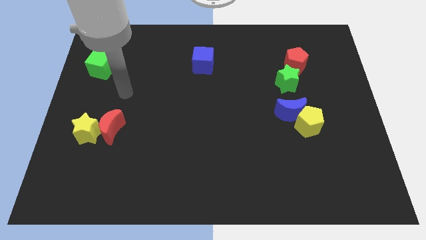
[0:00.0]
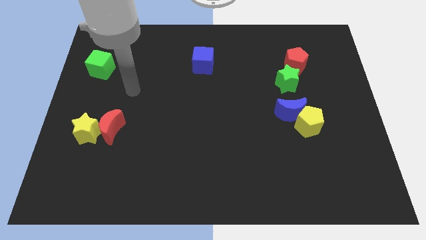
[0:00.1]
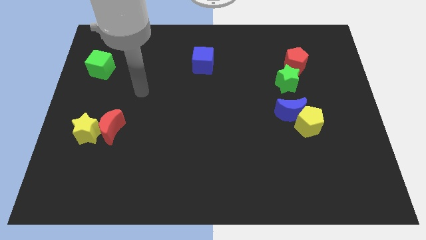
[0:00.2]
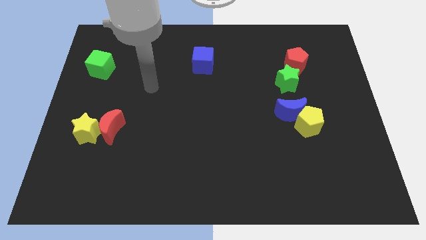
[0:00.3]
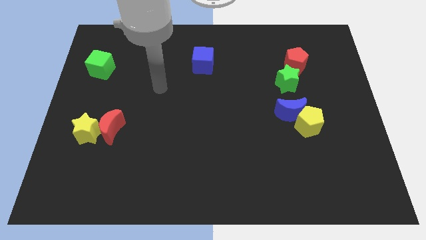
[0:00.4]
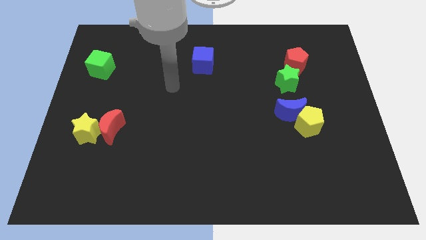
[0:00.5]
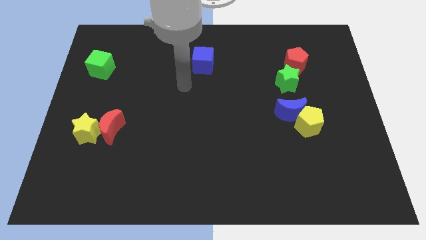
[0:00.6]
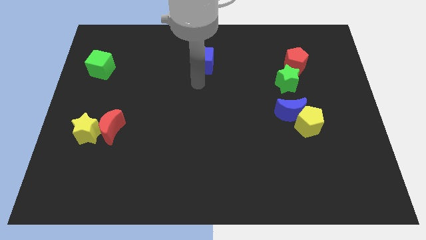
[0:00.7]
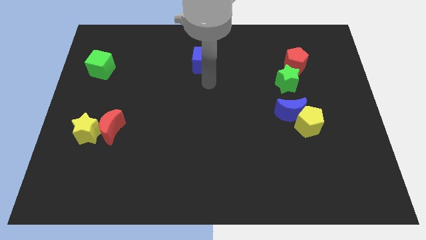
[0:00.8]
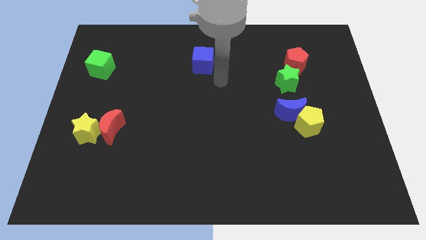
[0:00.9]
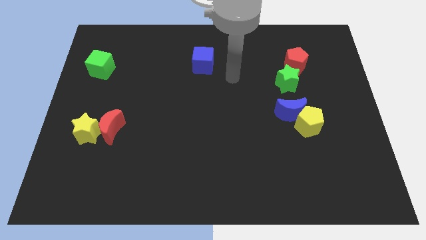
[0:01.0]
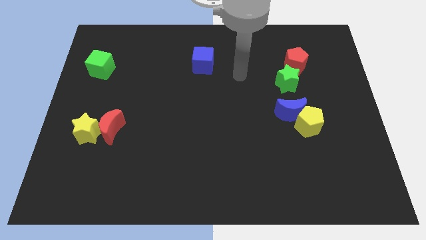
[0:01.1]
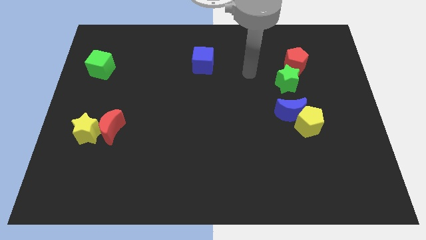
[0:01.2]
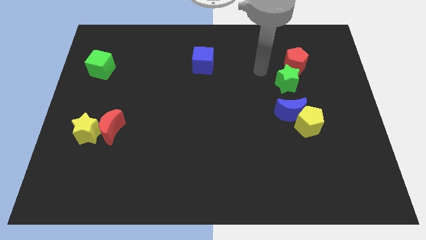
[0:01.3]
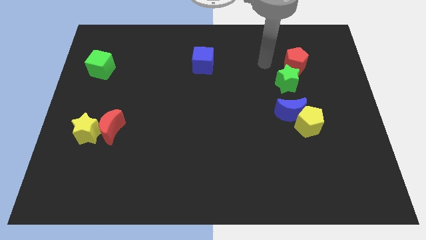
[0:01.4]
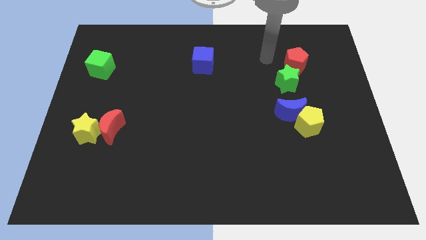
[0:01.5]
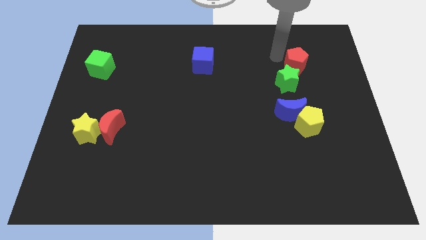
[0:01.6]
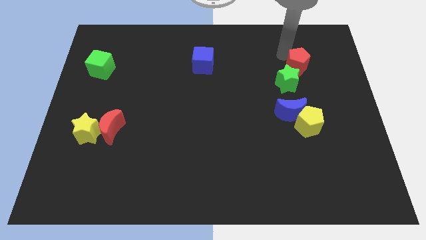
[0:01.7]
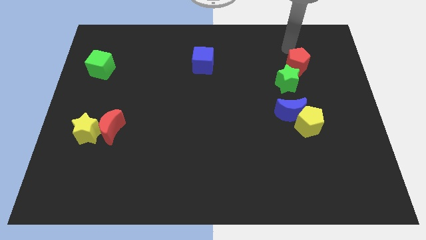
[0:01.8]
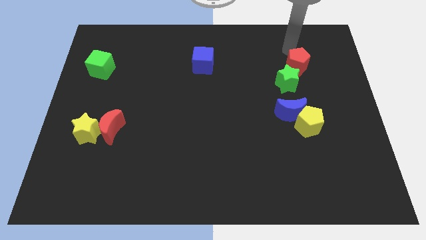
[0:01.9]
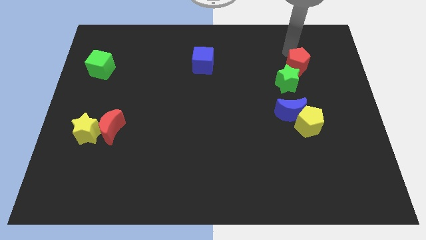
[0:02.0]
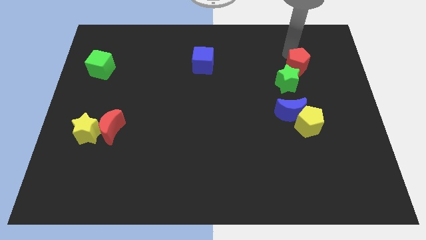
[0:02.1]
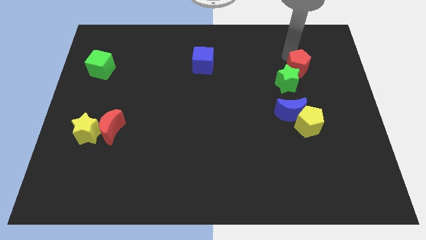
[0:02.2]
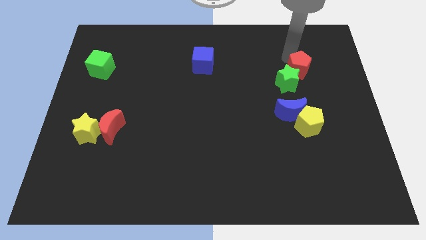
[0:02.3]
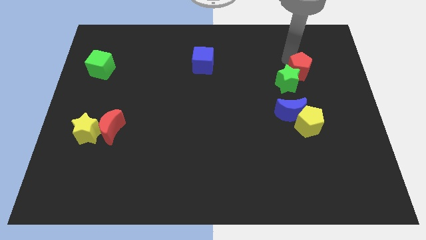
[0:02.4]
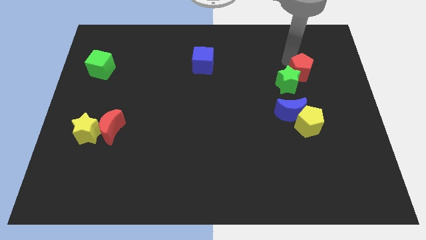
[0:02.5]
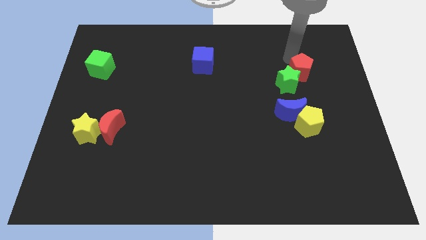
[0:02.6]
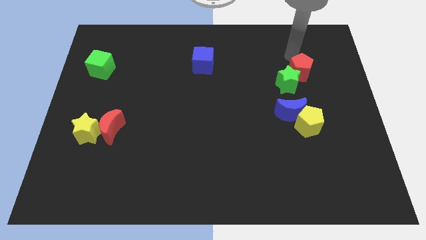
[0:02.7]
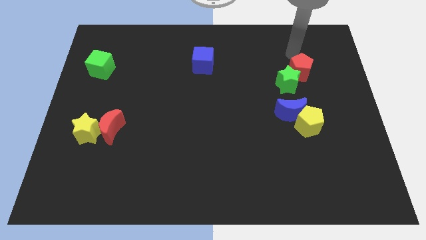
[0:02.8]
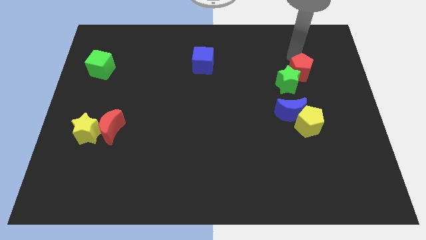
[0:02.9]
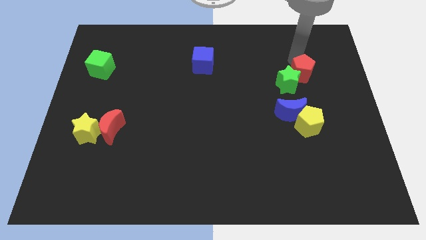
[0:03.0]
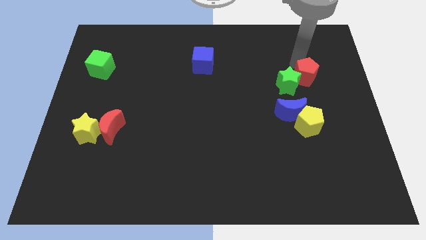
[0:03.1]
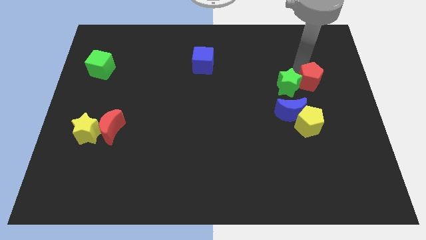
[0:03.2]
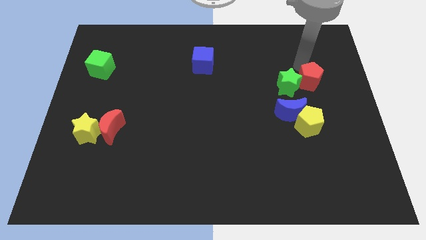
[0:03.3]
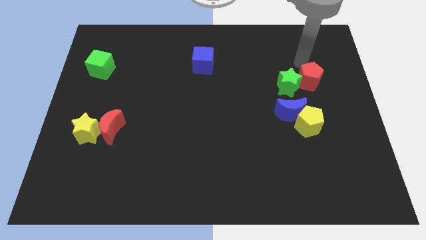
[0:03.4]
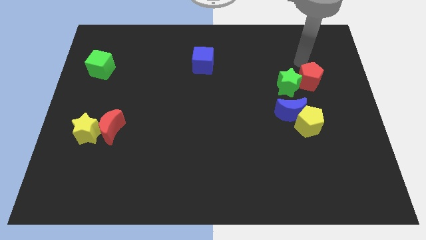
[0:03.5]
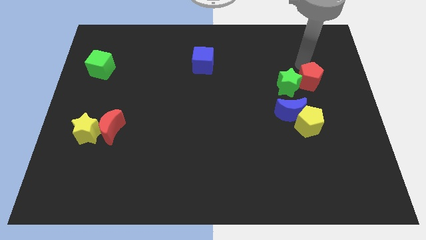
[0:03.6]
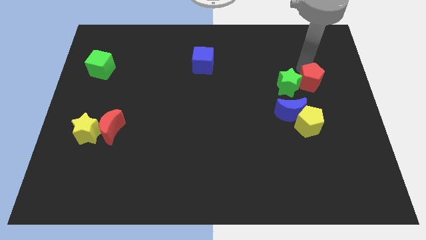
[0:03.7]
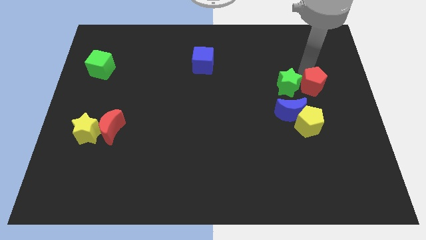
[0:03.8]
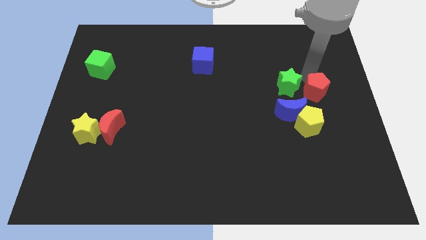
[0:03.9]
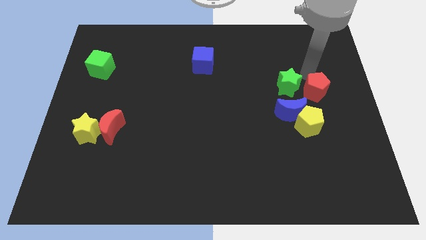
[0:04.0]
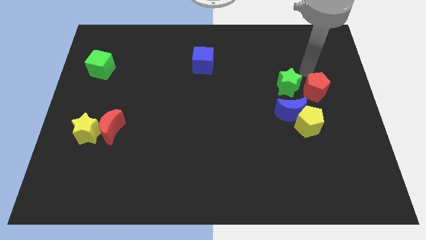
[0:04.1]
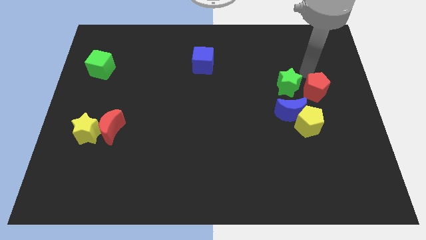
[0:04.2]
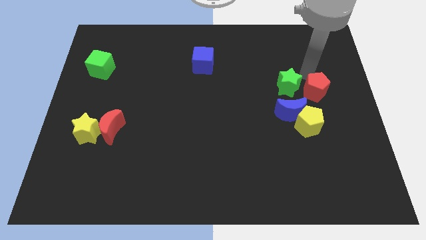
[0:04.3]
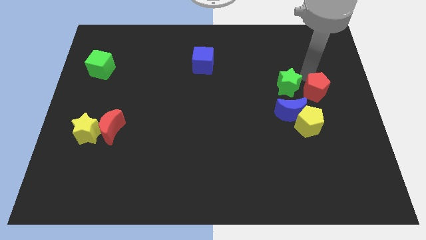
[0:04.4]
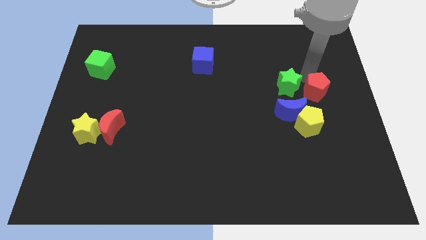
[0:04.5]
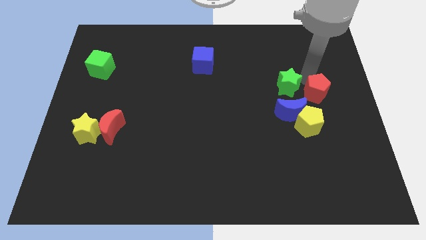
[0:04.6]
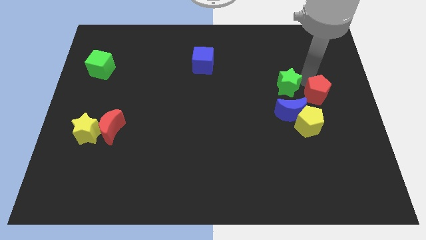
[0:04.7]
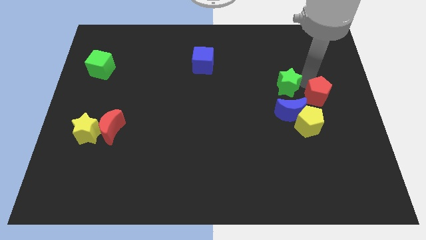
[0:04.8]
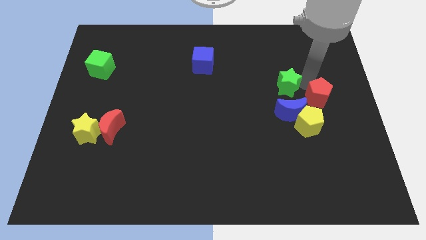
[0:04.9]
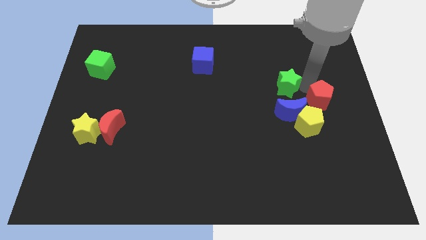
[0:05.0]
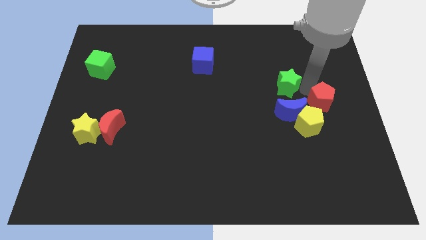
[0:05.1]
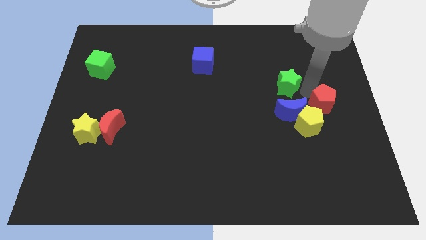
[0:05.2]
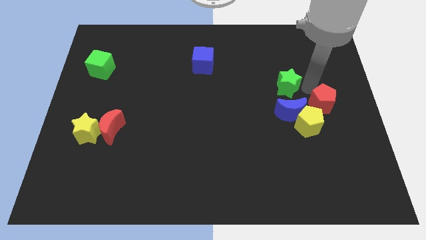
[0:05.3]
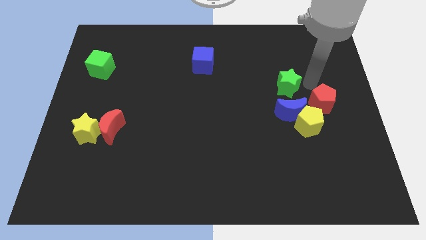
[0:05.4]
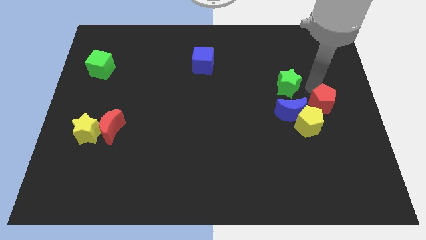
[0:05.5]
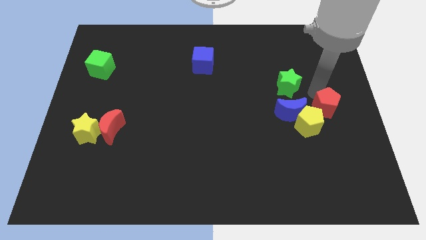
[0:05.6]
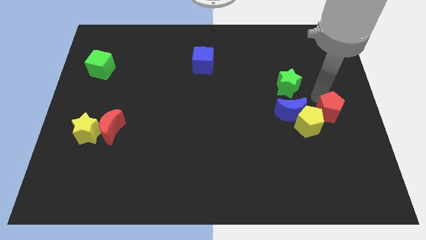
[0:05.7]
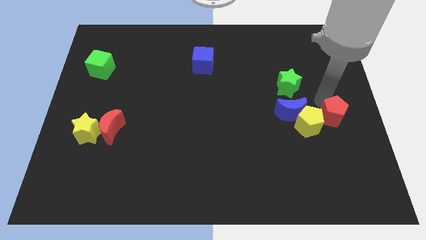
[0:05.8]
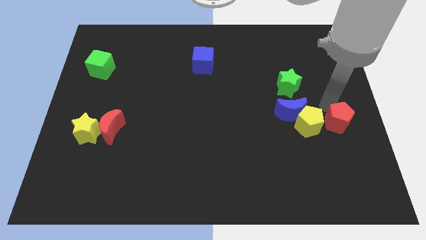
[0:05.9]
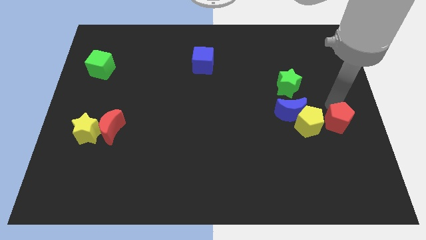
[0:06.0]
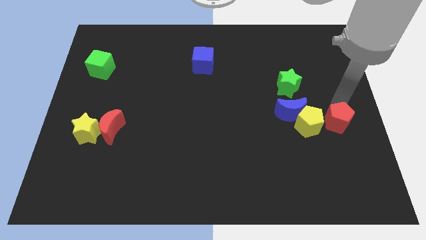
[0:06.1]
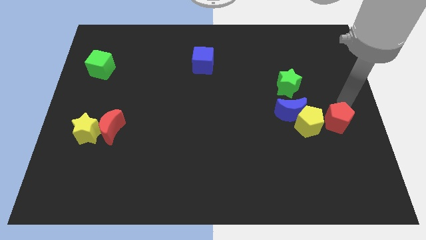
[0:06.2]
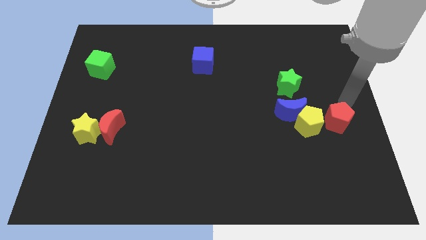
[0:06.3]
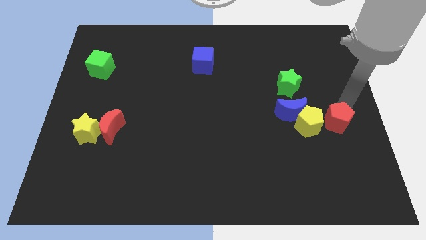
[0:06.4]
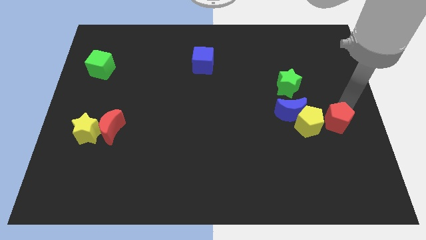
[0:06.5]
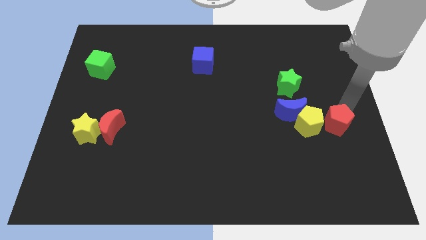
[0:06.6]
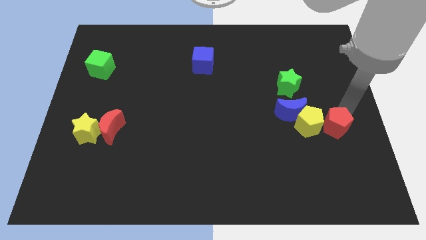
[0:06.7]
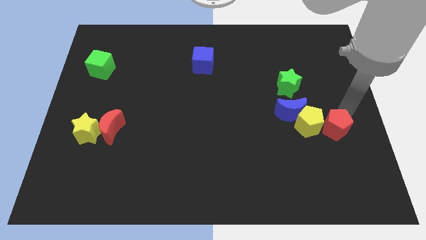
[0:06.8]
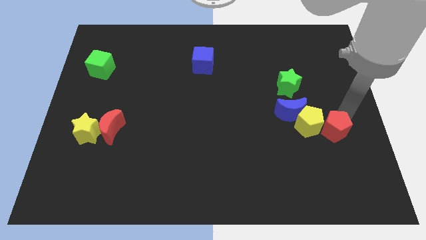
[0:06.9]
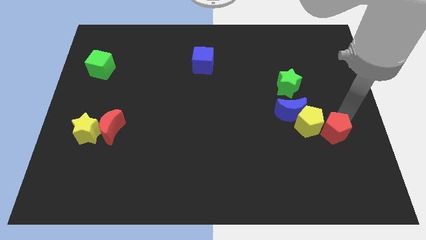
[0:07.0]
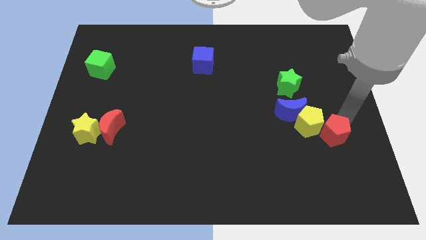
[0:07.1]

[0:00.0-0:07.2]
slide the red pentagon downwards

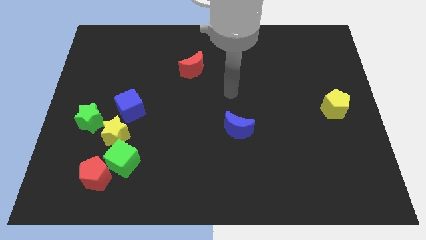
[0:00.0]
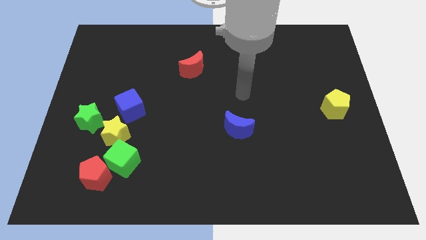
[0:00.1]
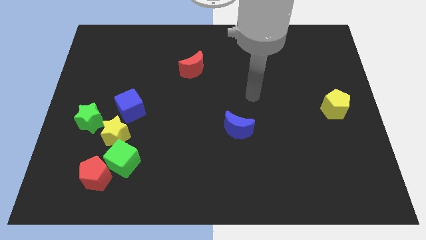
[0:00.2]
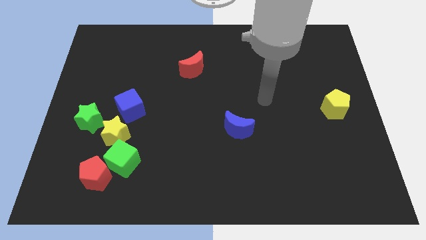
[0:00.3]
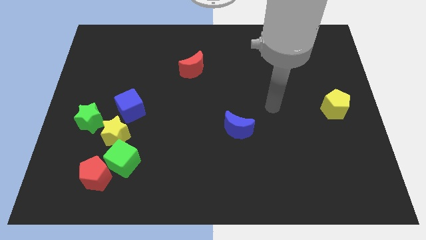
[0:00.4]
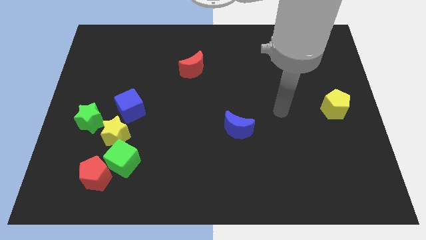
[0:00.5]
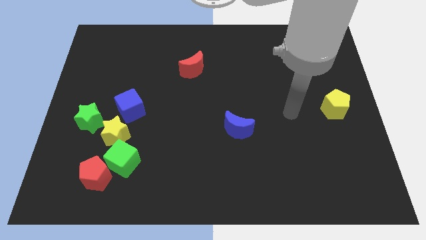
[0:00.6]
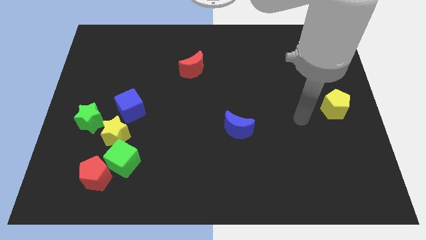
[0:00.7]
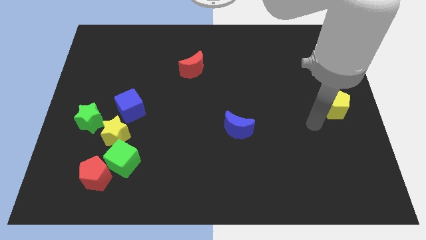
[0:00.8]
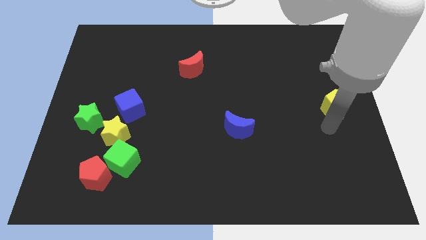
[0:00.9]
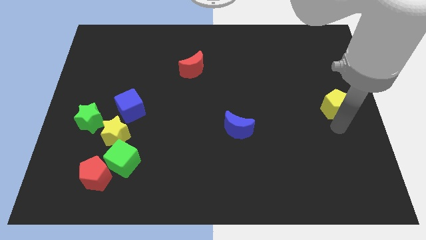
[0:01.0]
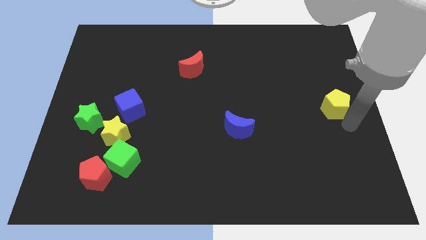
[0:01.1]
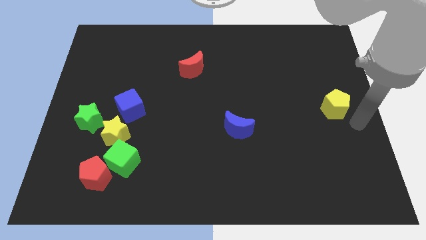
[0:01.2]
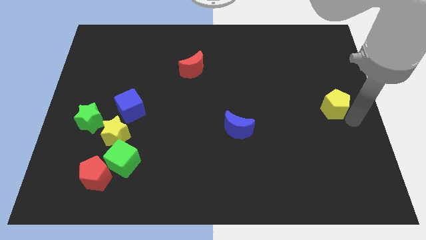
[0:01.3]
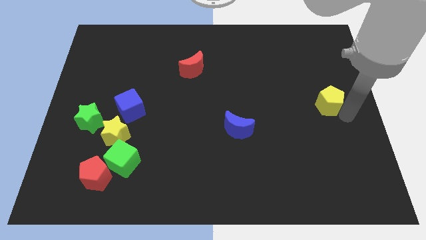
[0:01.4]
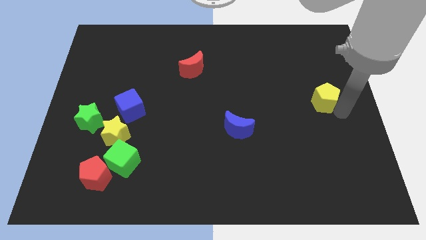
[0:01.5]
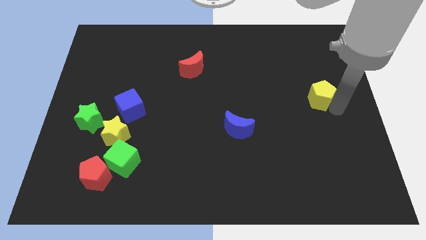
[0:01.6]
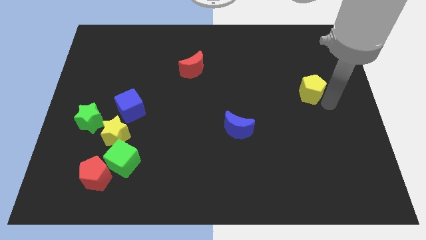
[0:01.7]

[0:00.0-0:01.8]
move the yellow pentagon up and then left somewhat
